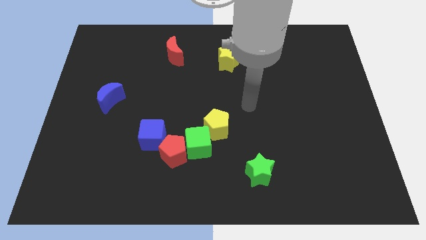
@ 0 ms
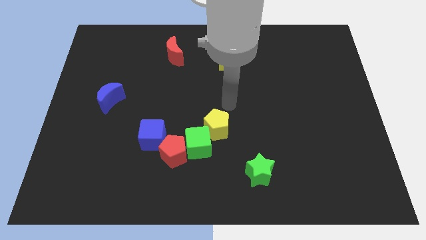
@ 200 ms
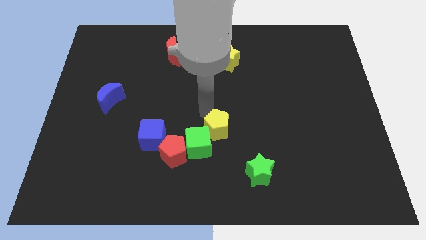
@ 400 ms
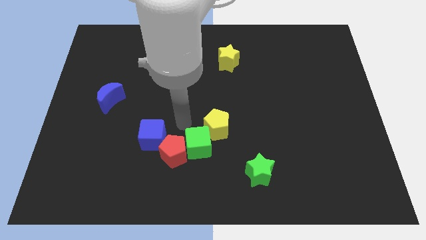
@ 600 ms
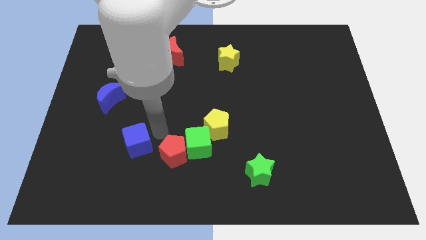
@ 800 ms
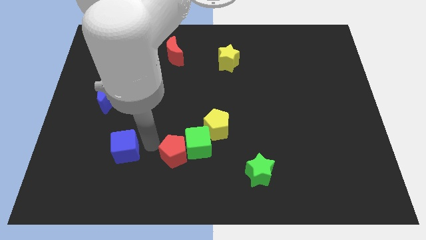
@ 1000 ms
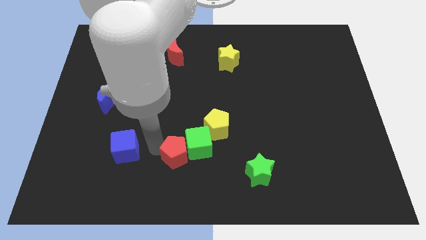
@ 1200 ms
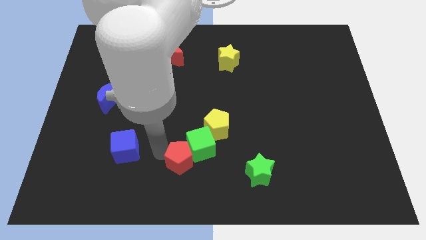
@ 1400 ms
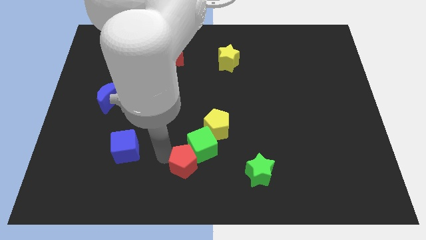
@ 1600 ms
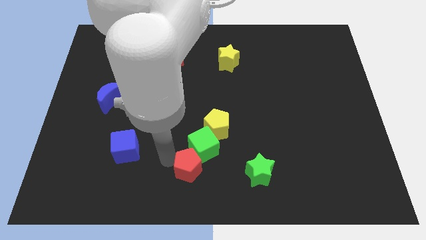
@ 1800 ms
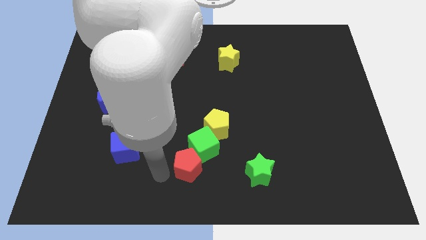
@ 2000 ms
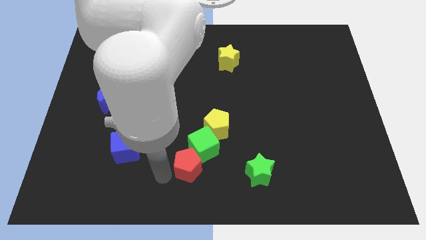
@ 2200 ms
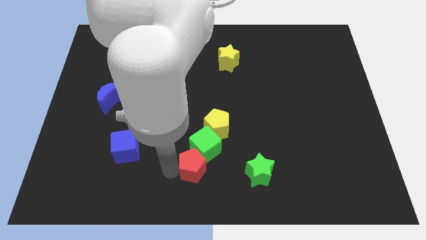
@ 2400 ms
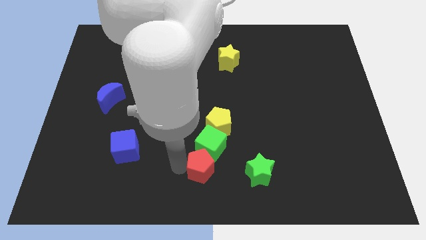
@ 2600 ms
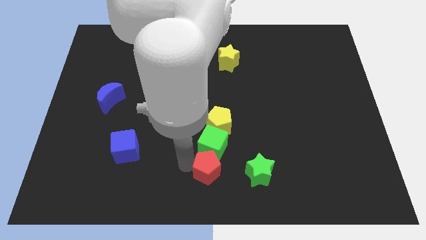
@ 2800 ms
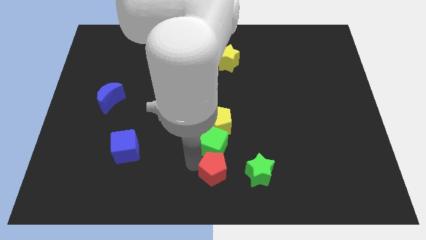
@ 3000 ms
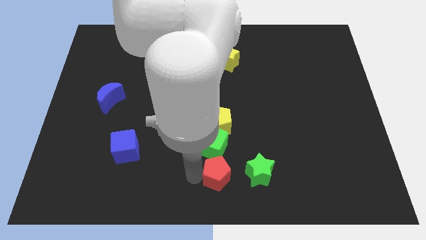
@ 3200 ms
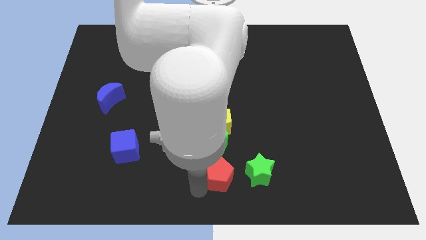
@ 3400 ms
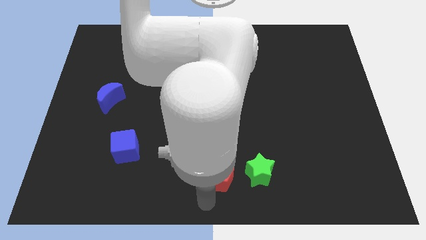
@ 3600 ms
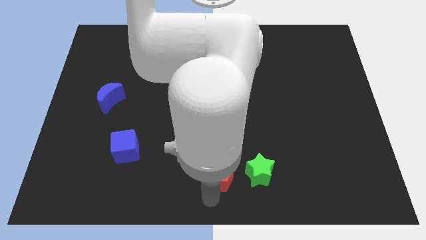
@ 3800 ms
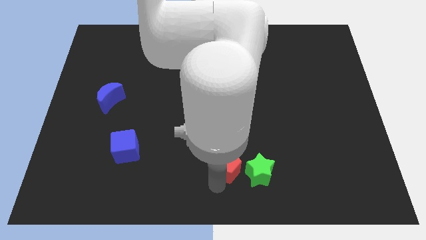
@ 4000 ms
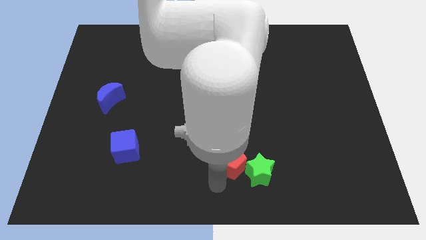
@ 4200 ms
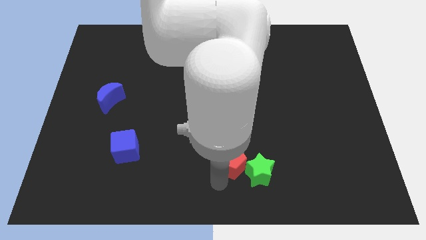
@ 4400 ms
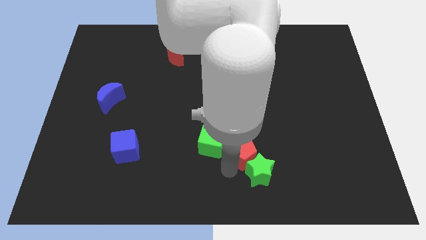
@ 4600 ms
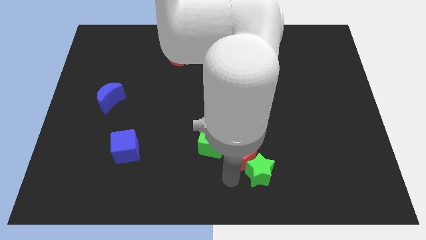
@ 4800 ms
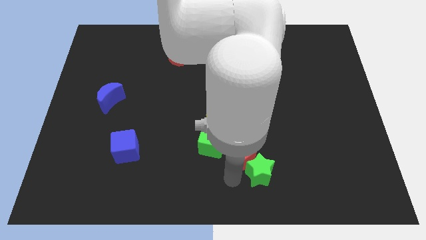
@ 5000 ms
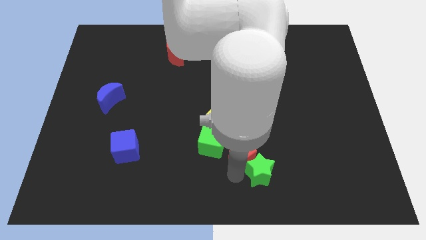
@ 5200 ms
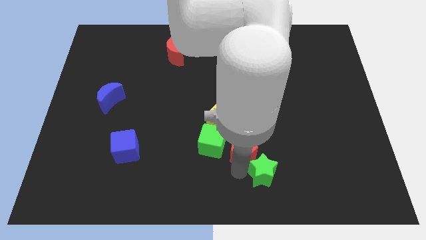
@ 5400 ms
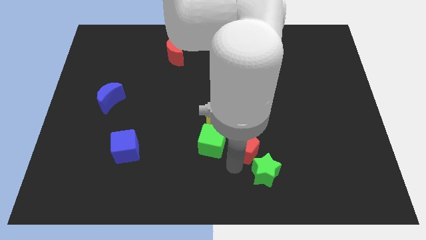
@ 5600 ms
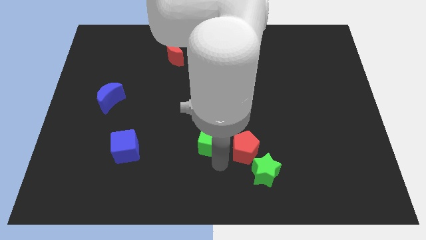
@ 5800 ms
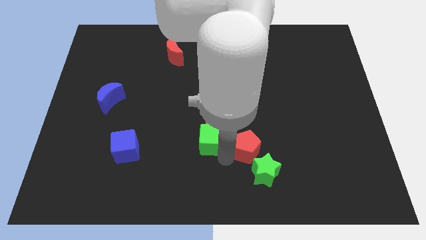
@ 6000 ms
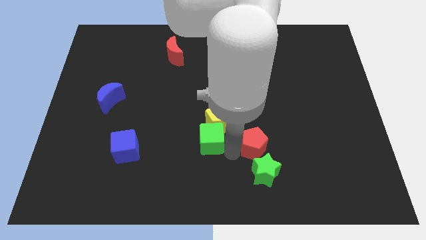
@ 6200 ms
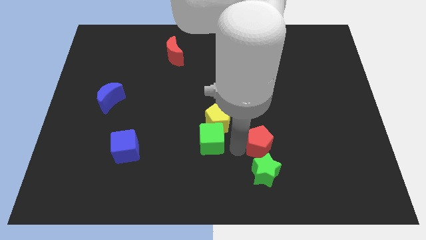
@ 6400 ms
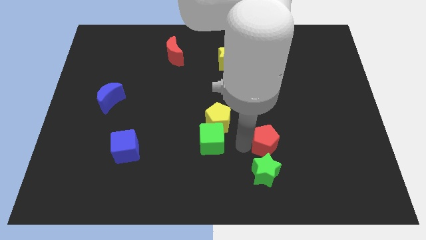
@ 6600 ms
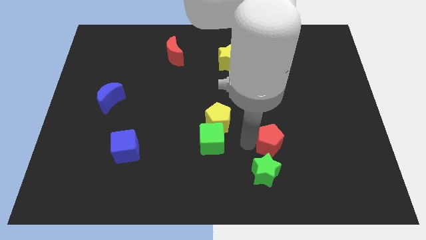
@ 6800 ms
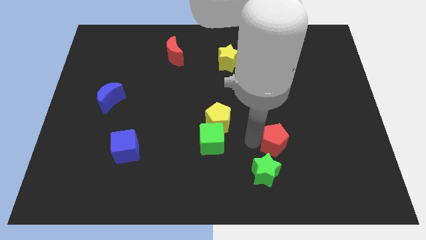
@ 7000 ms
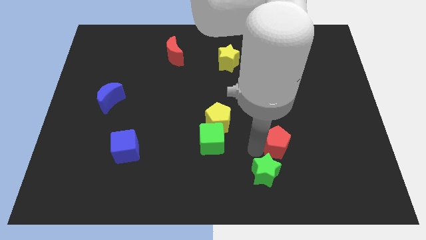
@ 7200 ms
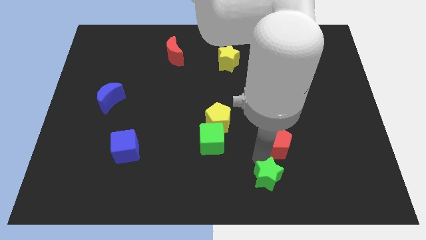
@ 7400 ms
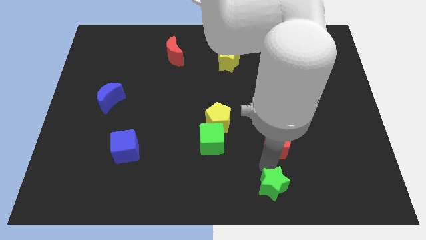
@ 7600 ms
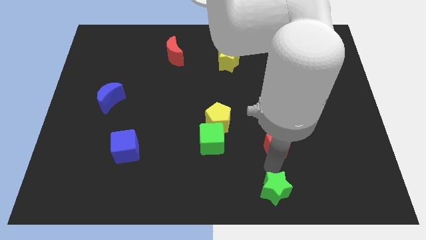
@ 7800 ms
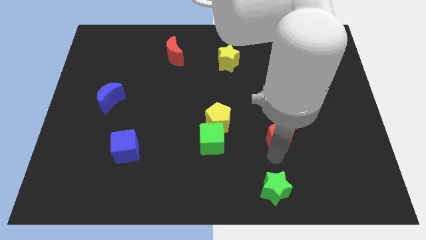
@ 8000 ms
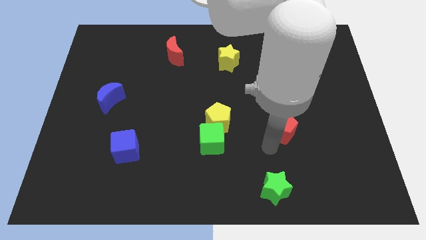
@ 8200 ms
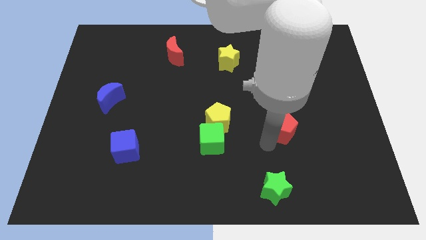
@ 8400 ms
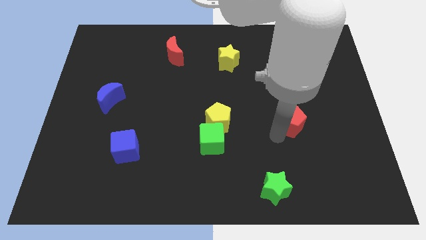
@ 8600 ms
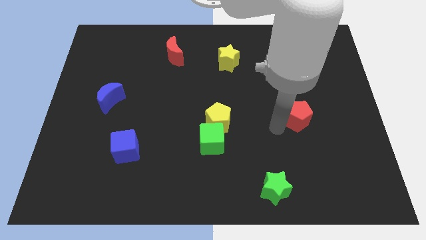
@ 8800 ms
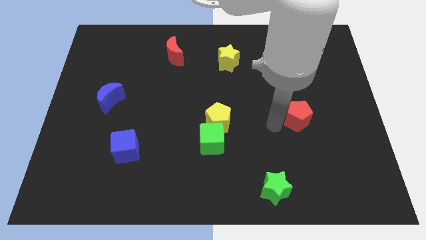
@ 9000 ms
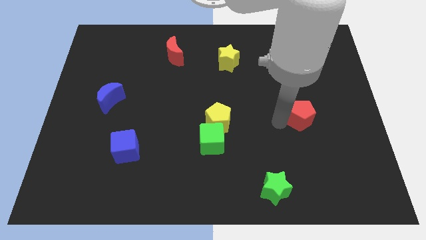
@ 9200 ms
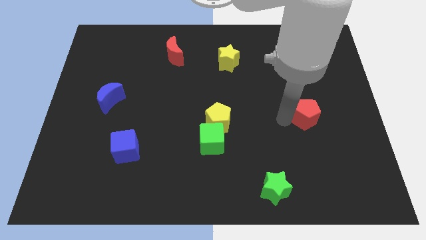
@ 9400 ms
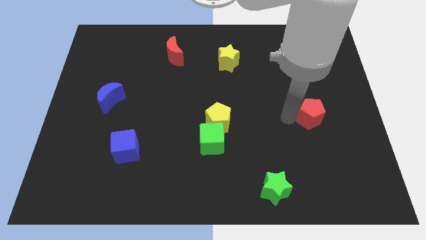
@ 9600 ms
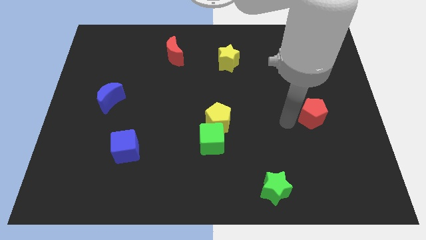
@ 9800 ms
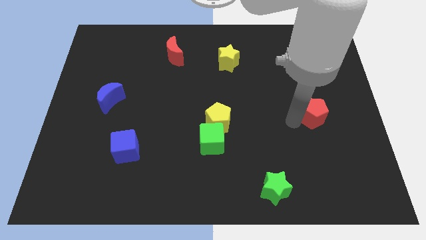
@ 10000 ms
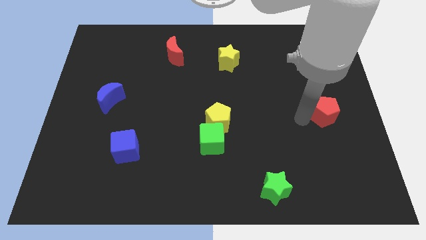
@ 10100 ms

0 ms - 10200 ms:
put the red pentagon to the right side

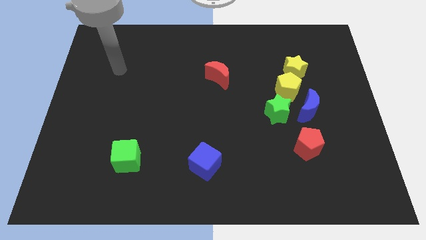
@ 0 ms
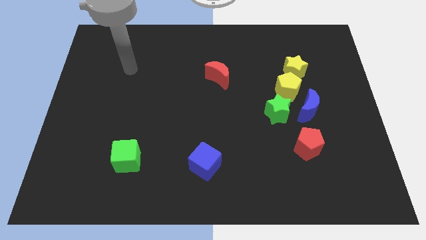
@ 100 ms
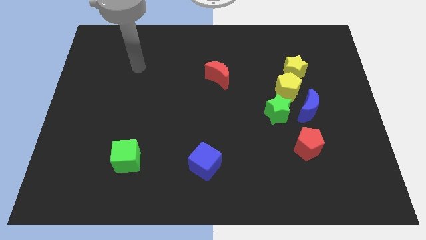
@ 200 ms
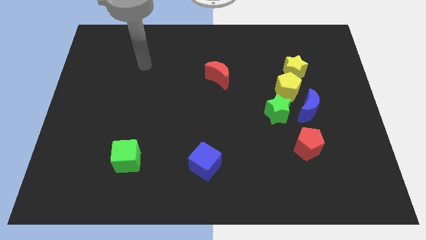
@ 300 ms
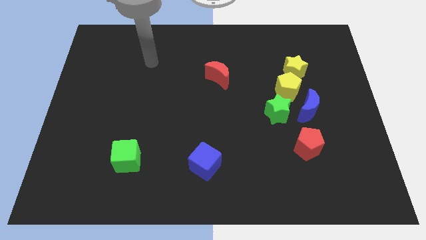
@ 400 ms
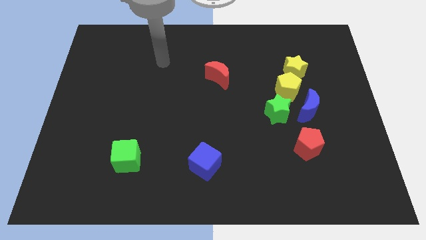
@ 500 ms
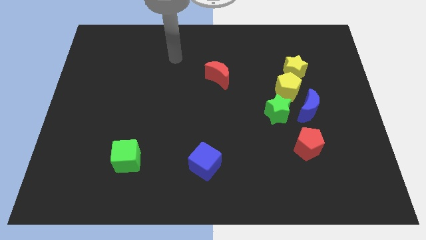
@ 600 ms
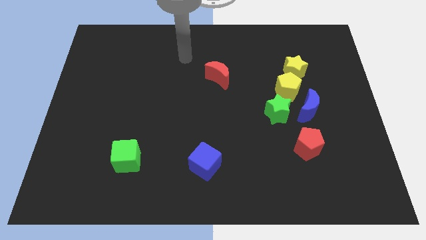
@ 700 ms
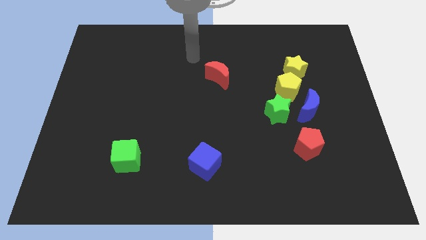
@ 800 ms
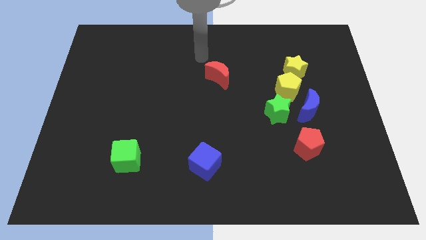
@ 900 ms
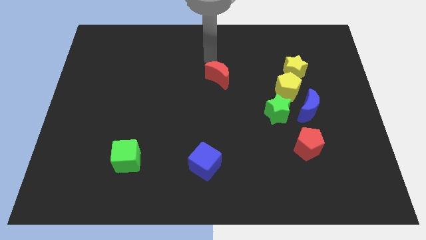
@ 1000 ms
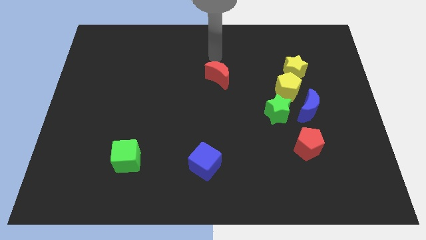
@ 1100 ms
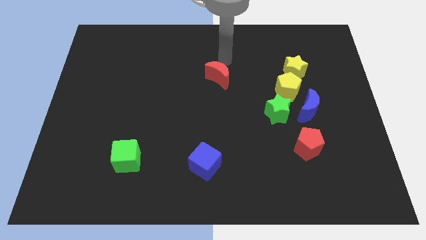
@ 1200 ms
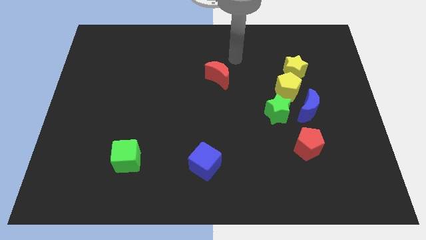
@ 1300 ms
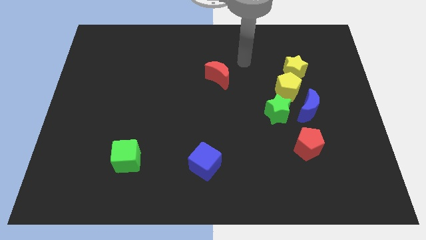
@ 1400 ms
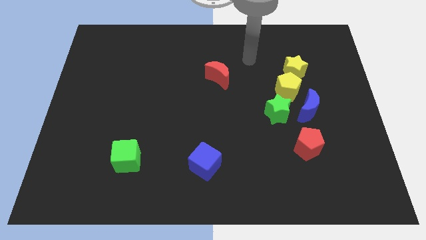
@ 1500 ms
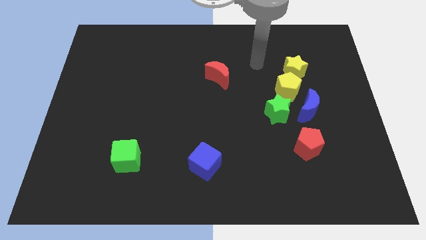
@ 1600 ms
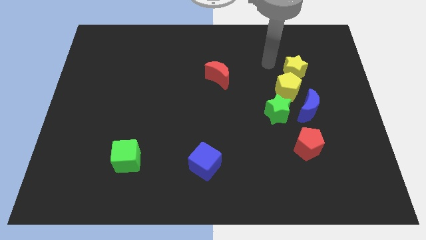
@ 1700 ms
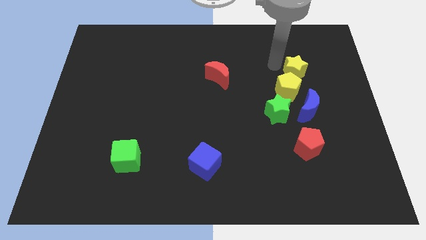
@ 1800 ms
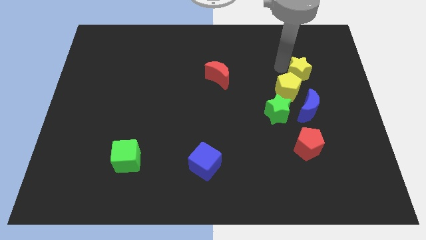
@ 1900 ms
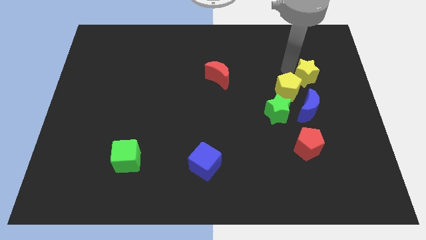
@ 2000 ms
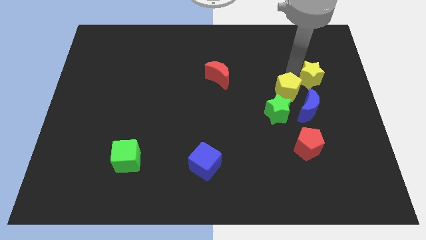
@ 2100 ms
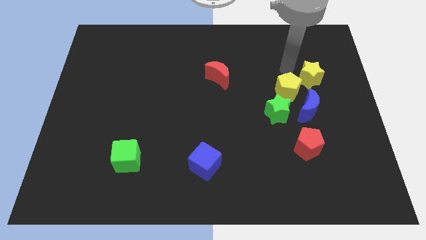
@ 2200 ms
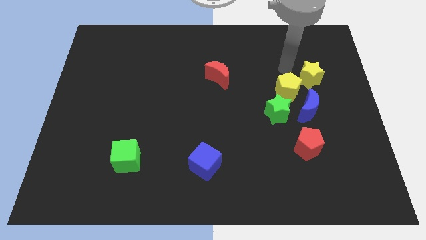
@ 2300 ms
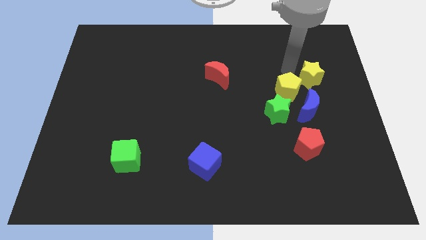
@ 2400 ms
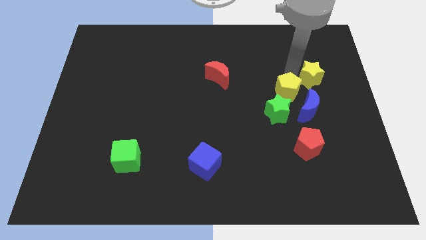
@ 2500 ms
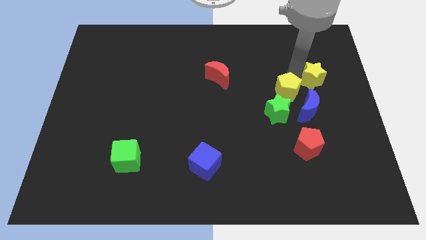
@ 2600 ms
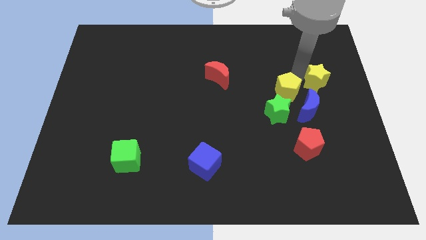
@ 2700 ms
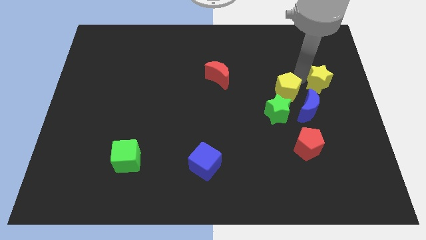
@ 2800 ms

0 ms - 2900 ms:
put the yellow star to the center right
